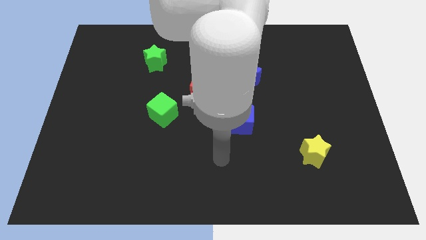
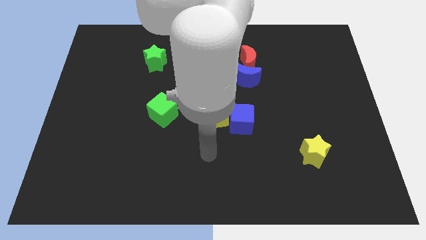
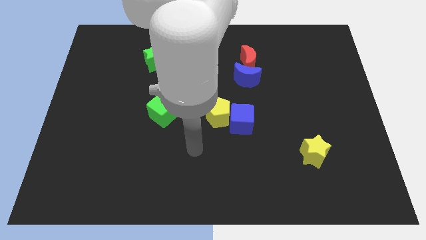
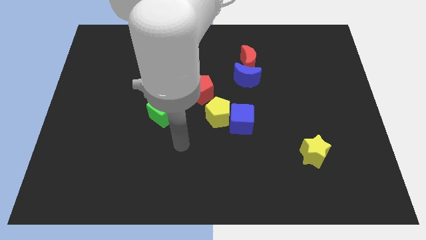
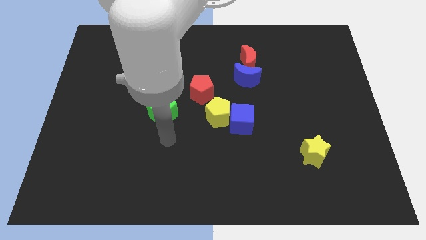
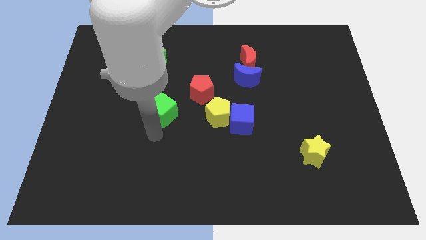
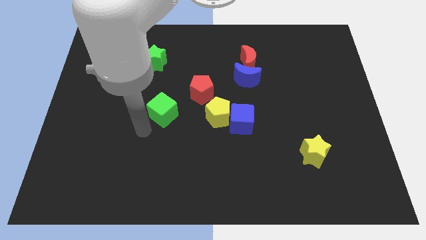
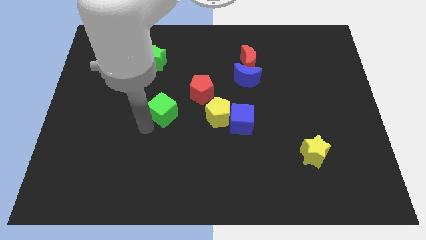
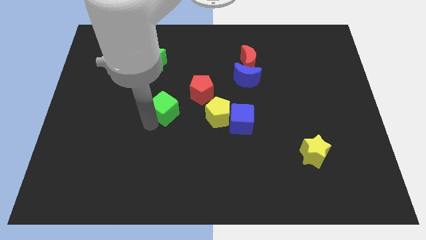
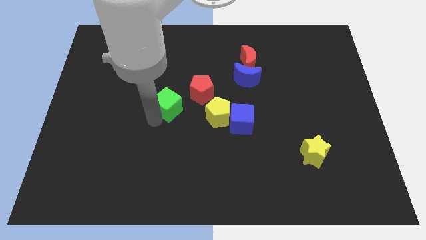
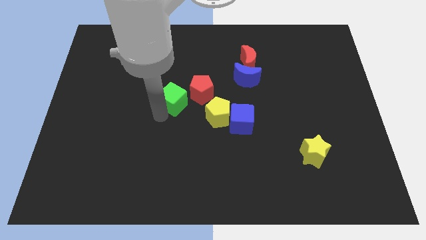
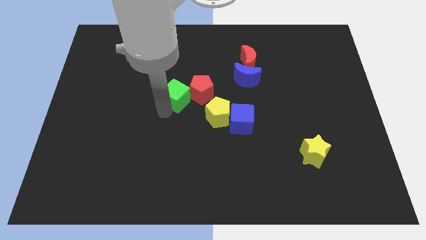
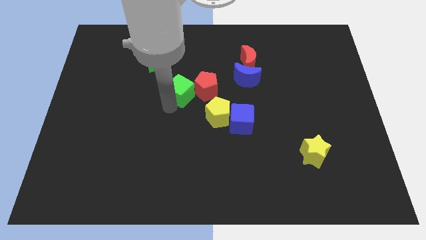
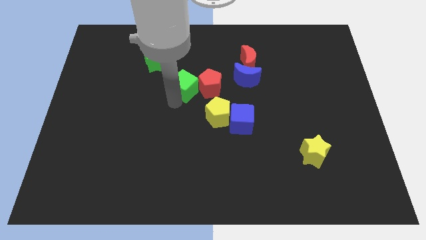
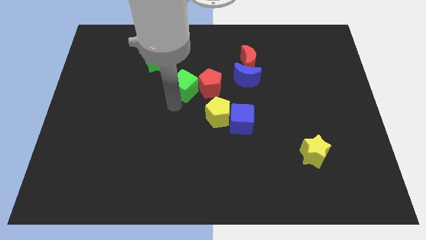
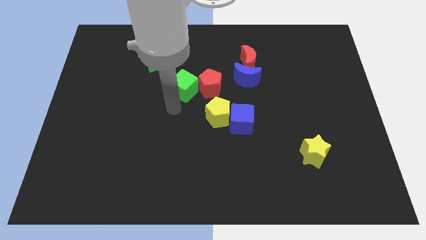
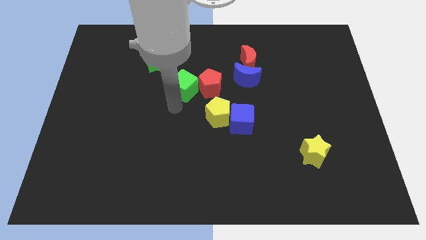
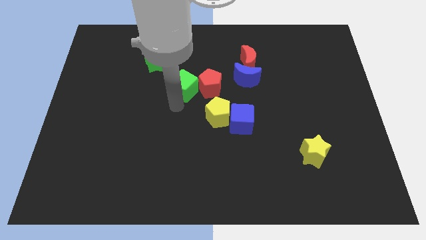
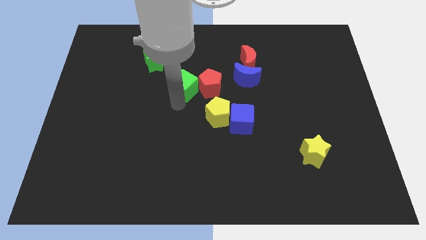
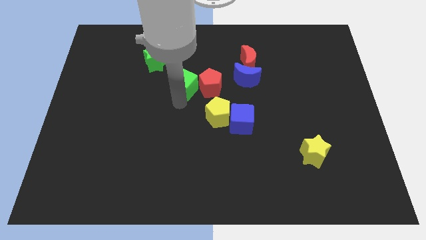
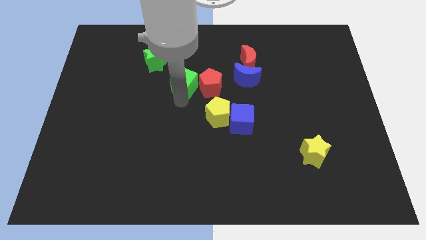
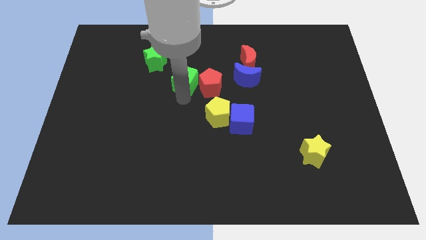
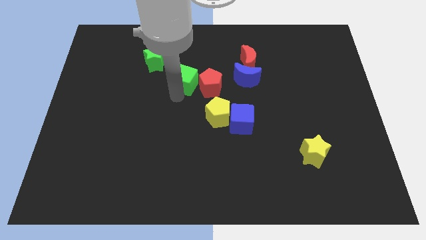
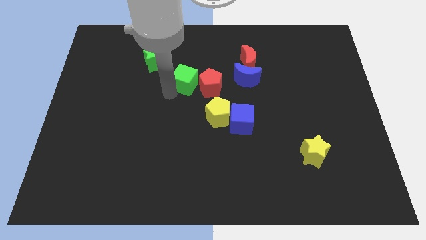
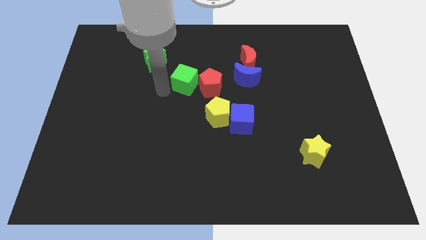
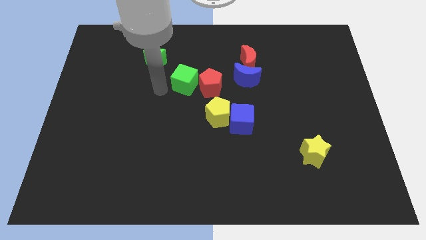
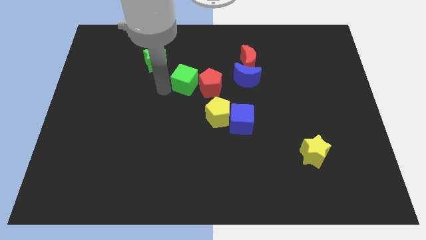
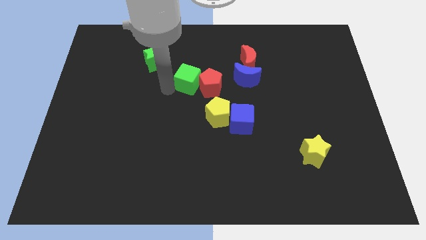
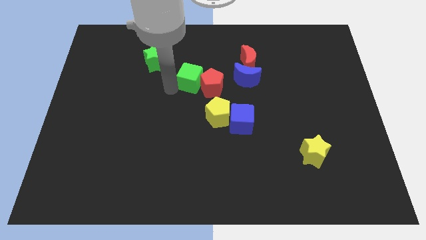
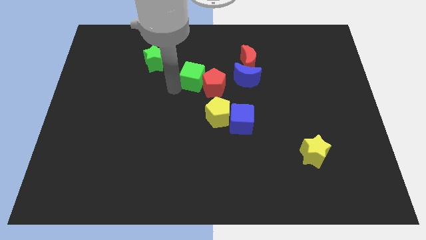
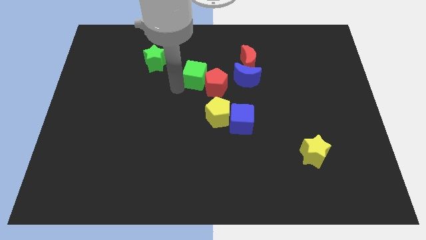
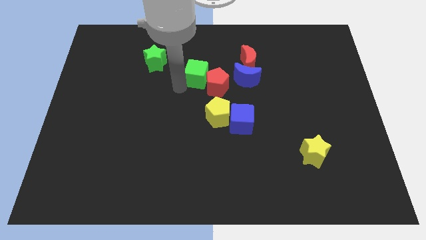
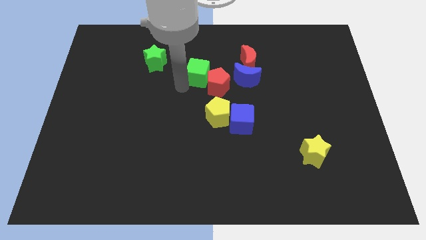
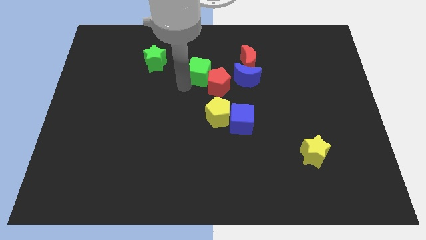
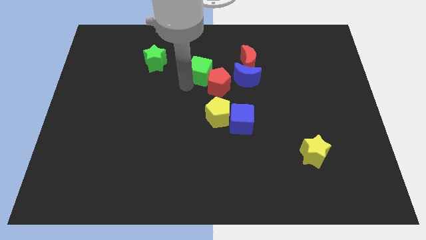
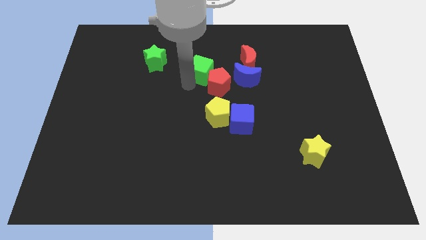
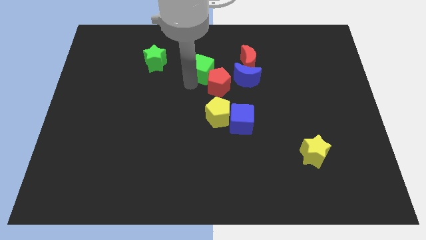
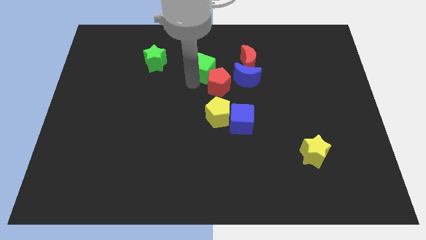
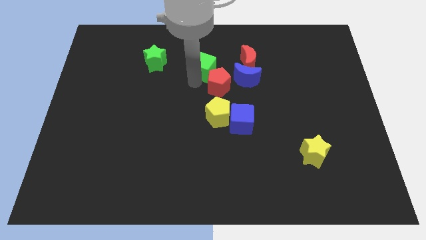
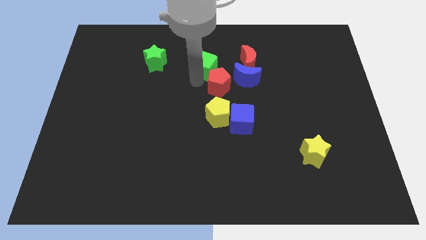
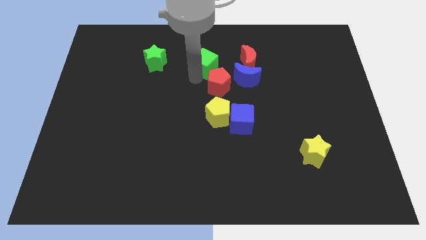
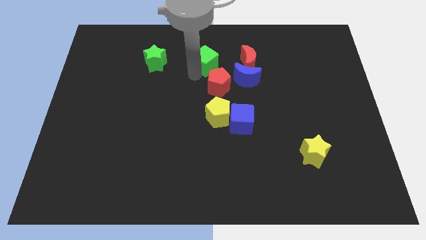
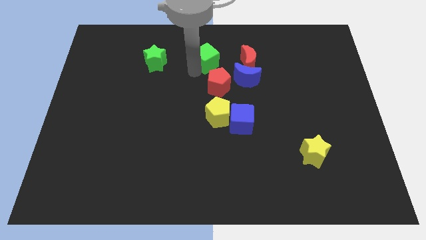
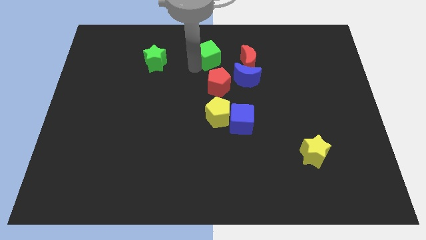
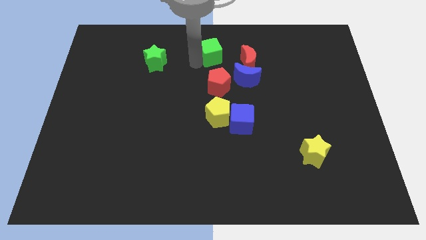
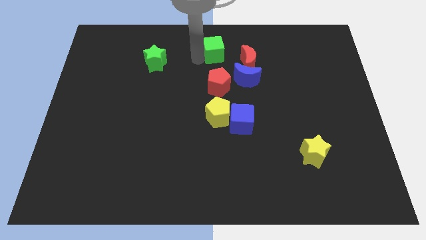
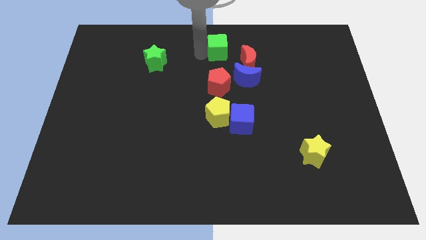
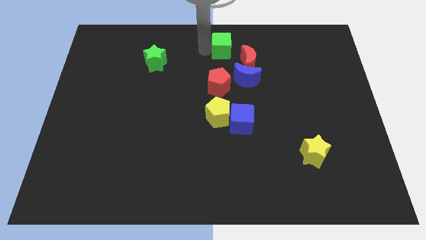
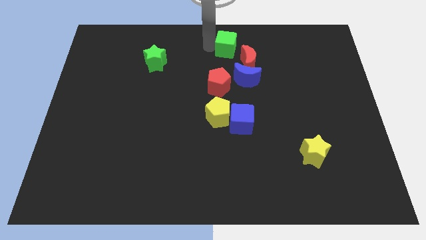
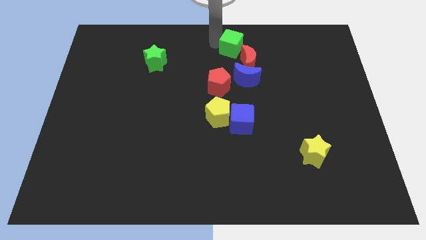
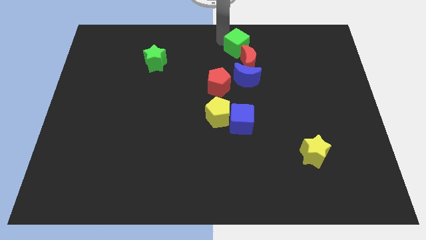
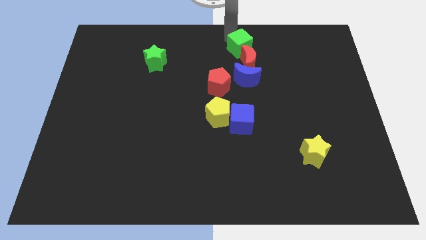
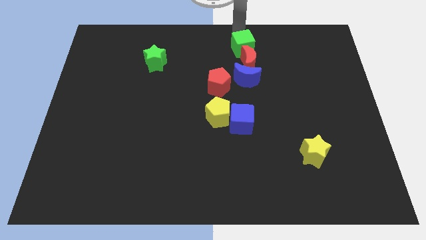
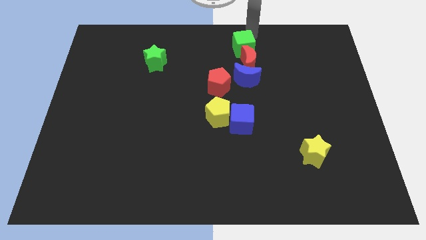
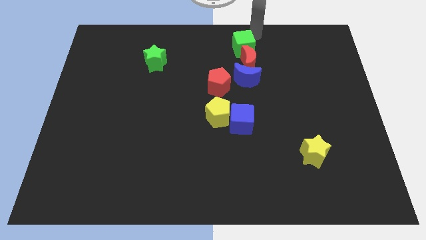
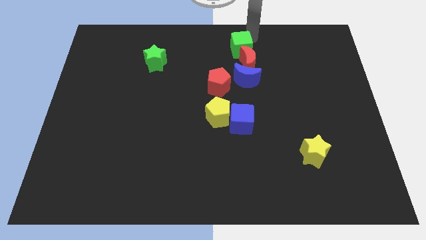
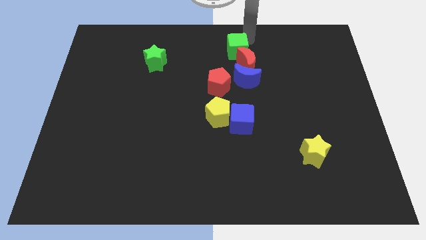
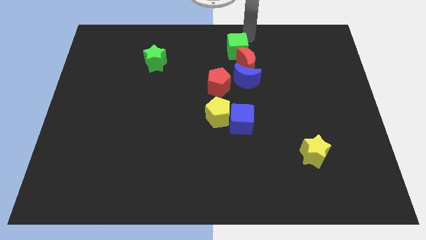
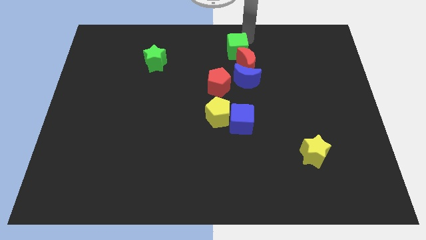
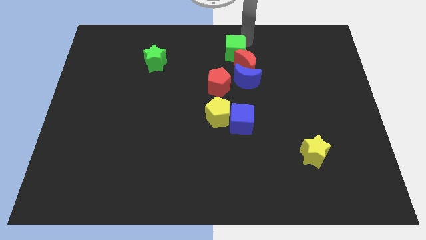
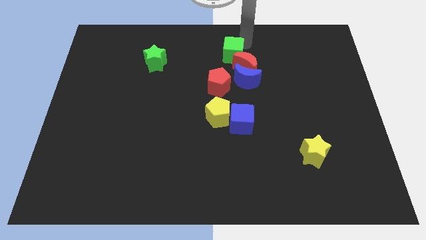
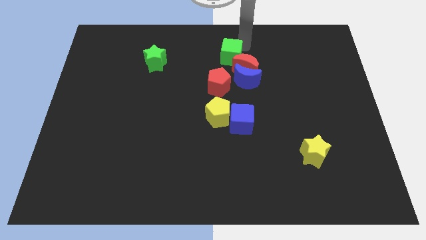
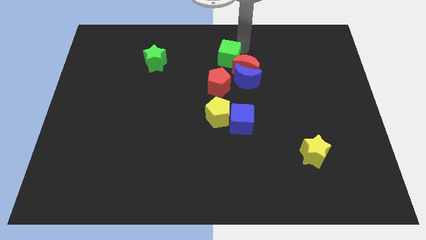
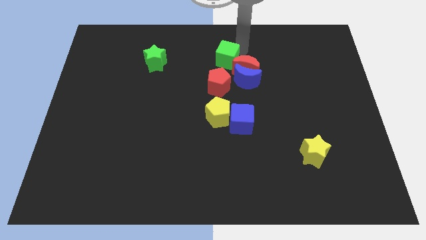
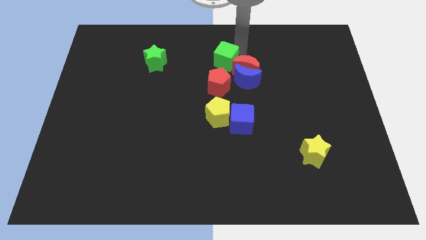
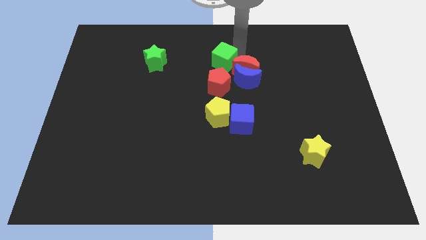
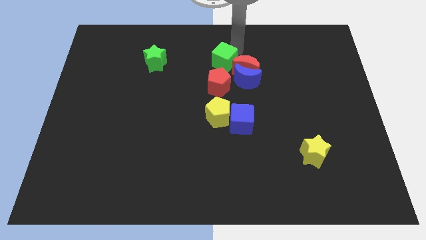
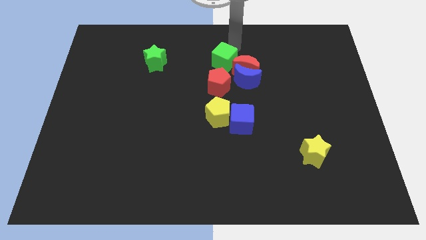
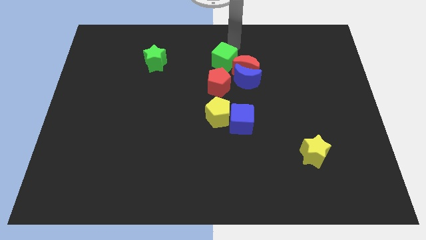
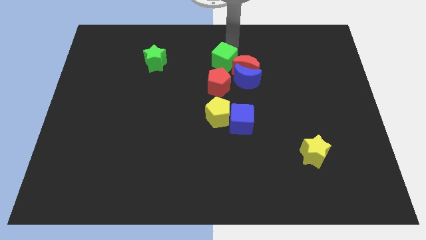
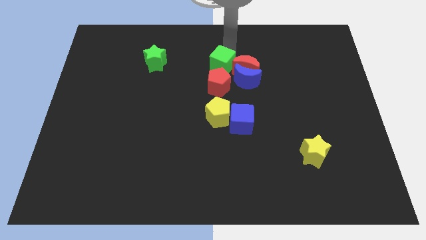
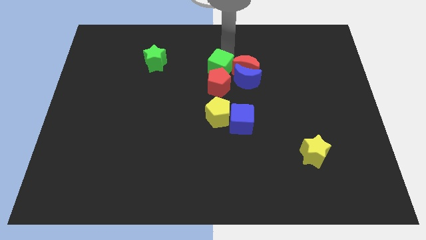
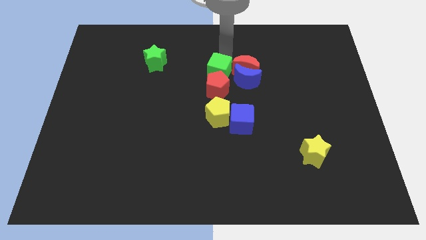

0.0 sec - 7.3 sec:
push the green cube to the bottom left of the red moon
